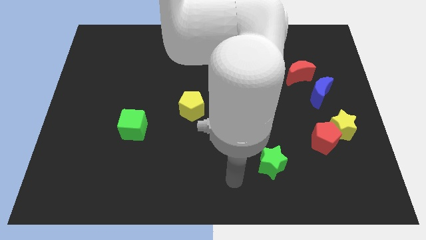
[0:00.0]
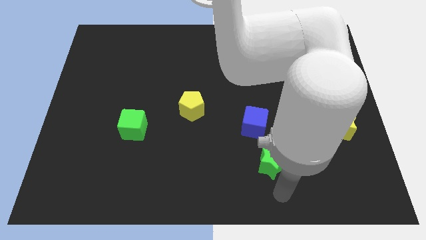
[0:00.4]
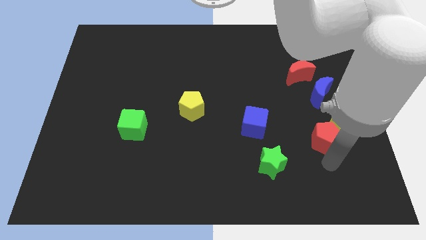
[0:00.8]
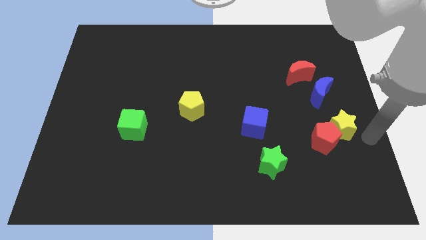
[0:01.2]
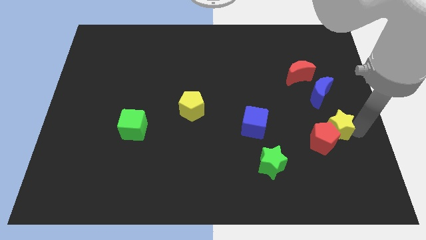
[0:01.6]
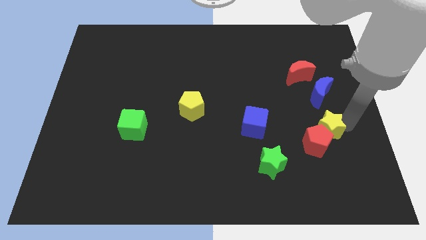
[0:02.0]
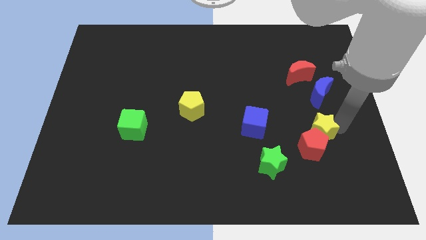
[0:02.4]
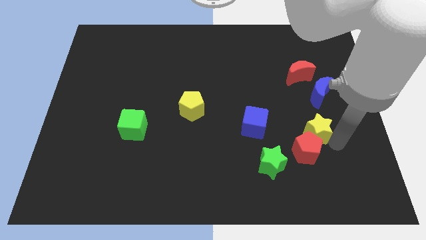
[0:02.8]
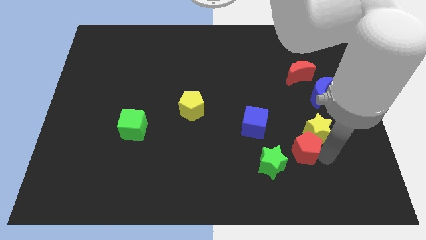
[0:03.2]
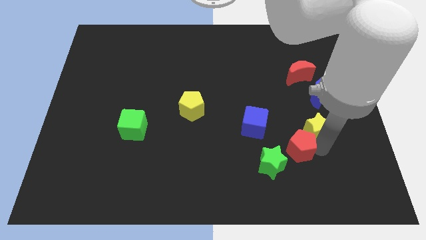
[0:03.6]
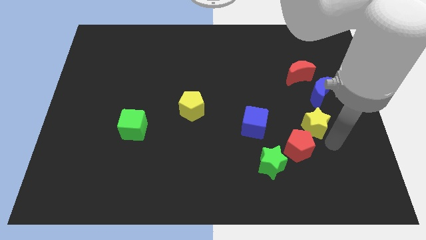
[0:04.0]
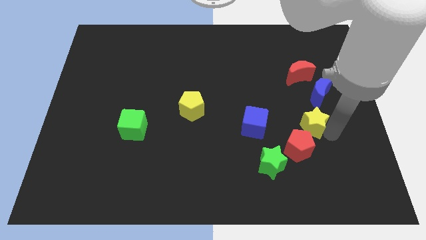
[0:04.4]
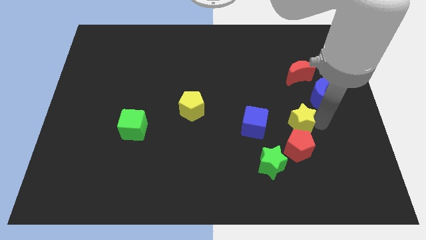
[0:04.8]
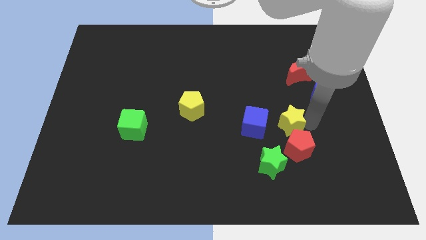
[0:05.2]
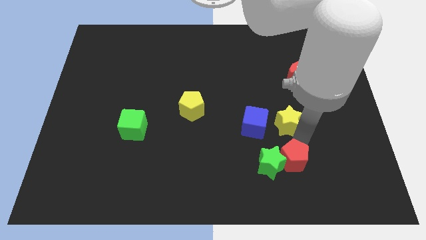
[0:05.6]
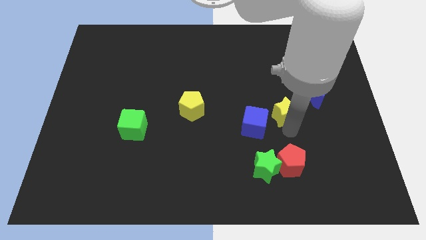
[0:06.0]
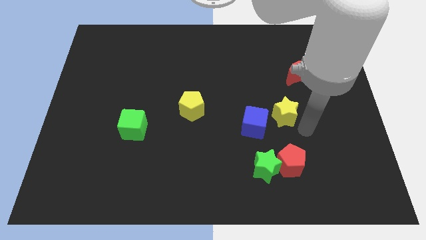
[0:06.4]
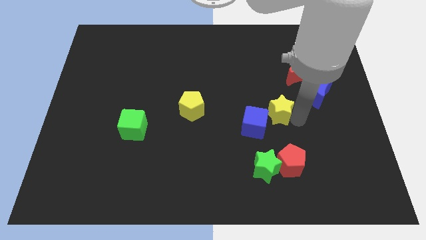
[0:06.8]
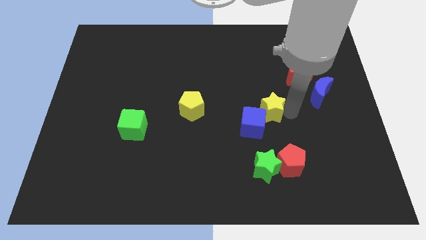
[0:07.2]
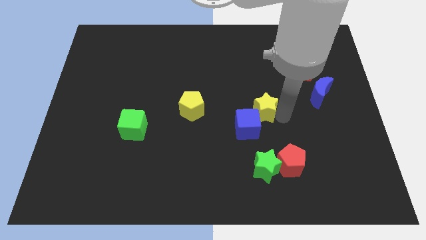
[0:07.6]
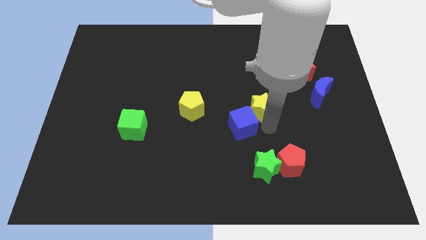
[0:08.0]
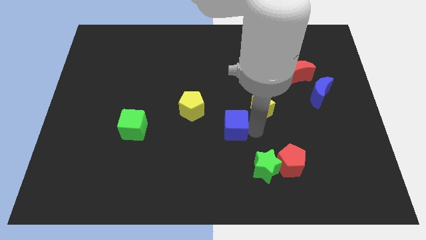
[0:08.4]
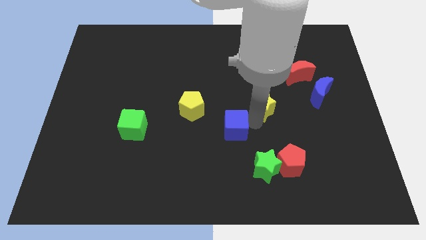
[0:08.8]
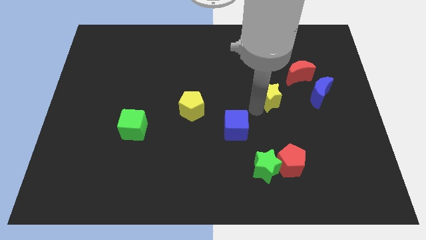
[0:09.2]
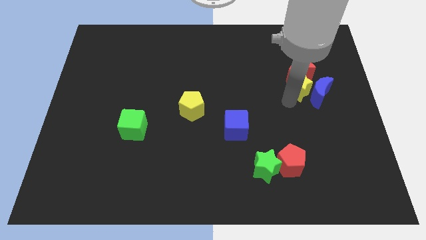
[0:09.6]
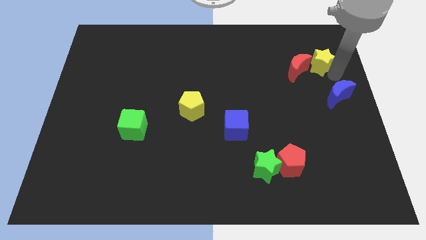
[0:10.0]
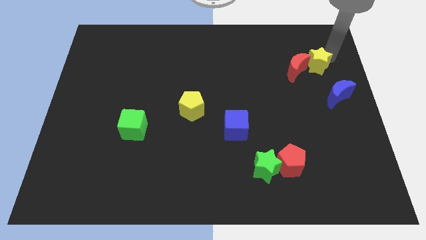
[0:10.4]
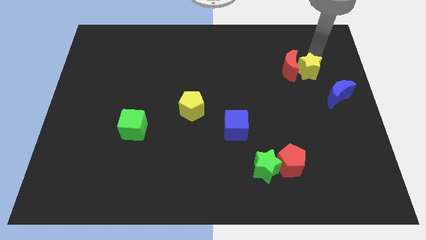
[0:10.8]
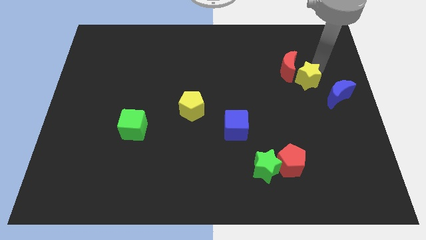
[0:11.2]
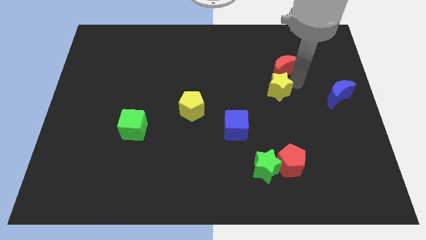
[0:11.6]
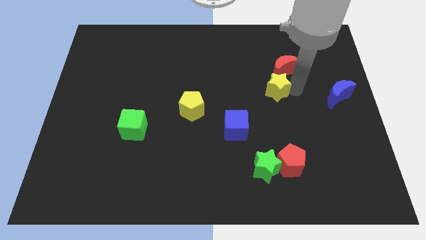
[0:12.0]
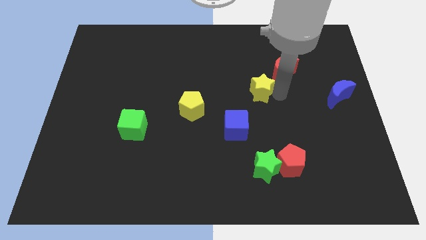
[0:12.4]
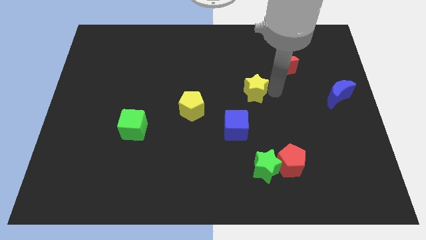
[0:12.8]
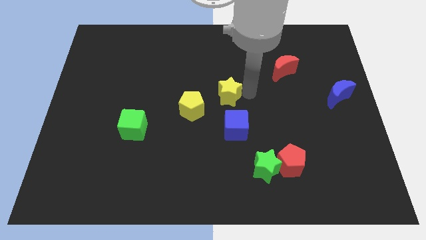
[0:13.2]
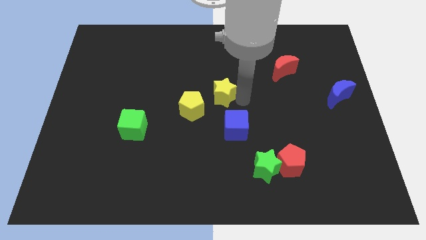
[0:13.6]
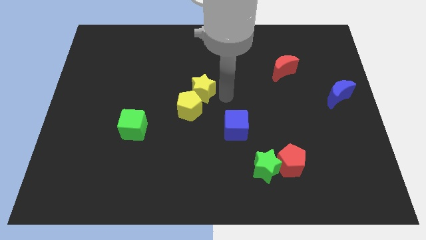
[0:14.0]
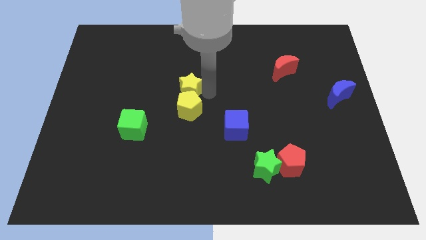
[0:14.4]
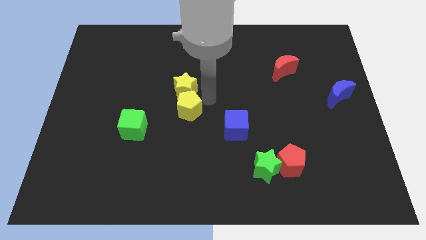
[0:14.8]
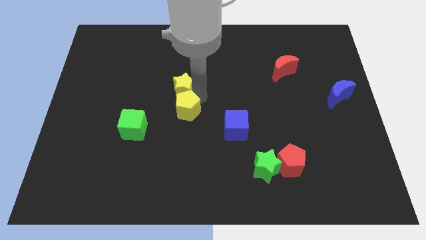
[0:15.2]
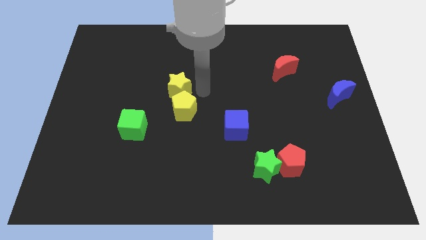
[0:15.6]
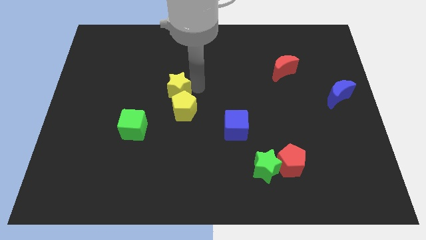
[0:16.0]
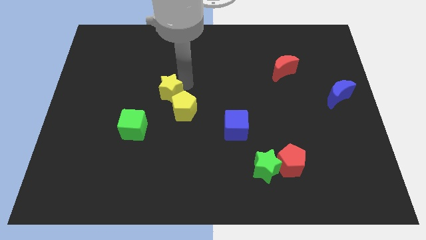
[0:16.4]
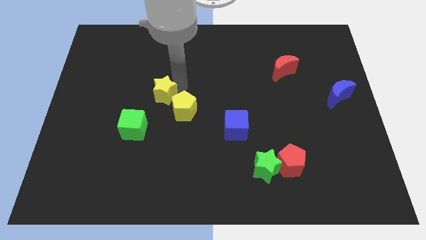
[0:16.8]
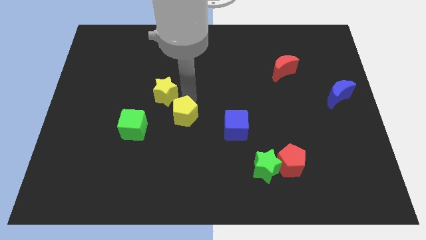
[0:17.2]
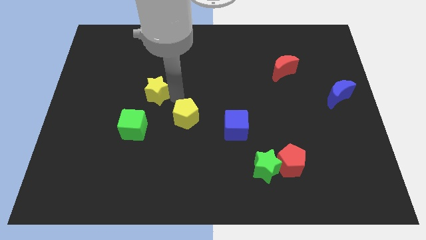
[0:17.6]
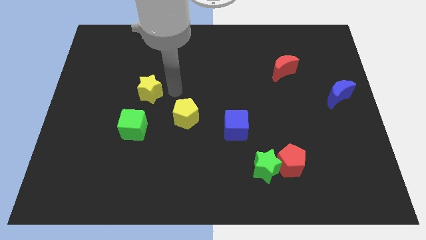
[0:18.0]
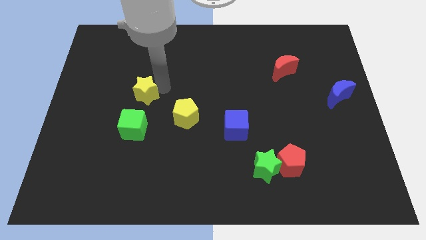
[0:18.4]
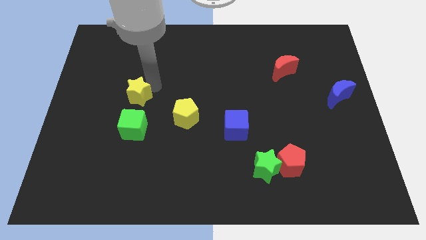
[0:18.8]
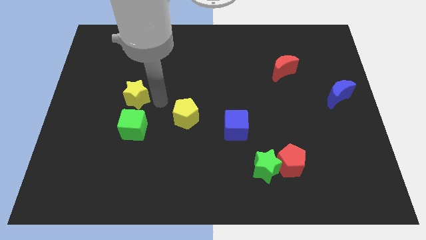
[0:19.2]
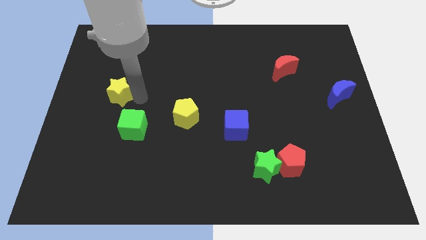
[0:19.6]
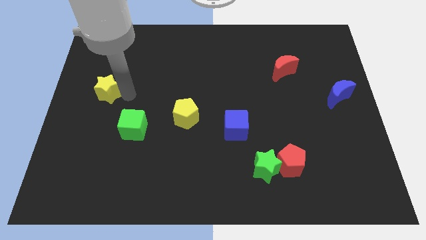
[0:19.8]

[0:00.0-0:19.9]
move the yellow star to the center left

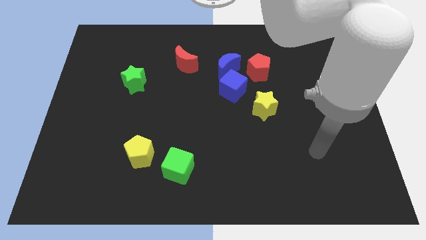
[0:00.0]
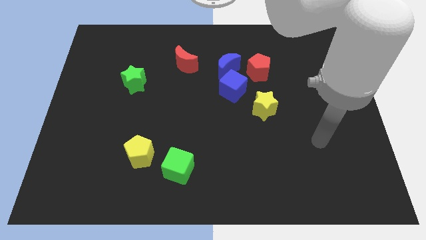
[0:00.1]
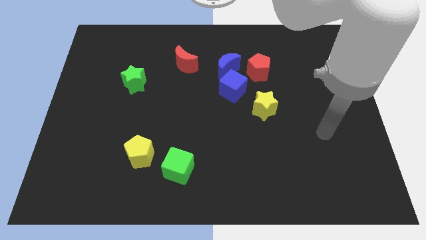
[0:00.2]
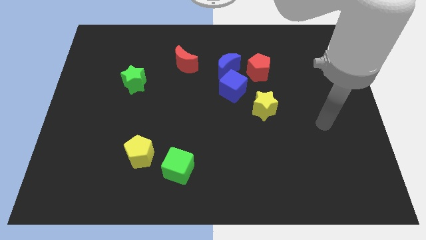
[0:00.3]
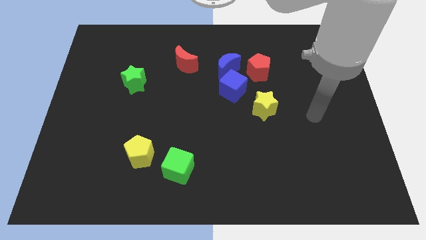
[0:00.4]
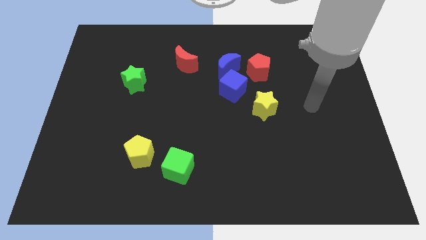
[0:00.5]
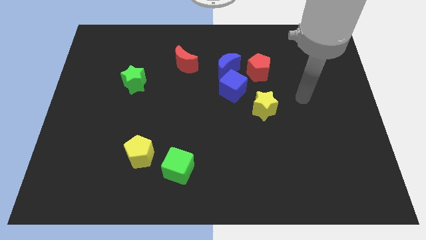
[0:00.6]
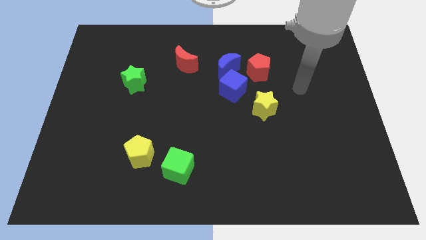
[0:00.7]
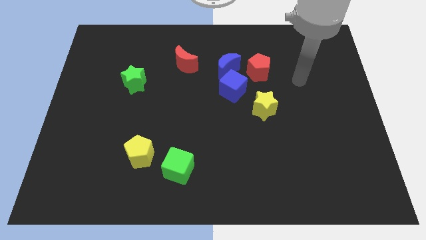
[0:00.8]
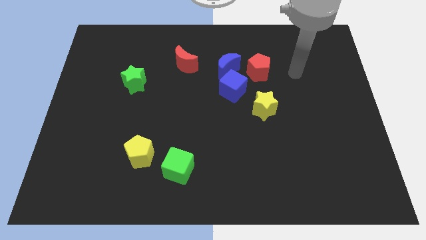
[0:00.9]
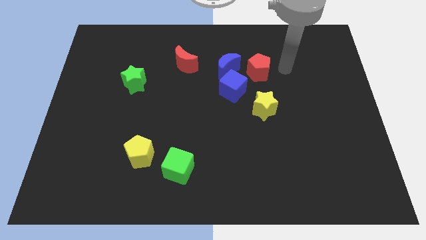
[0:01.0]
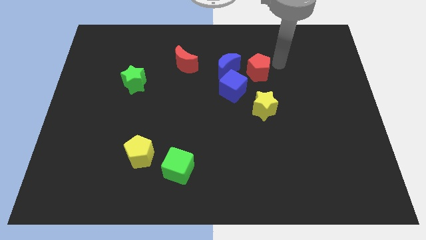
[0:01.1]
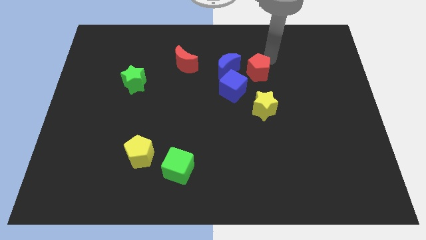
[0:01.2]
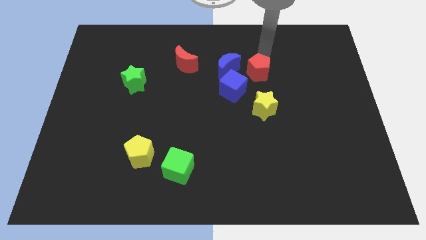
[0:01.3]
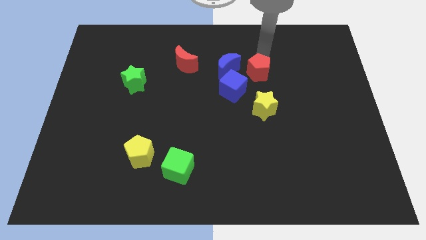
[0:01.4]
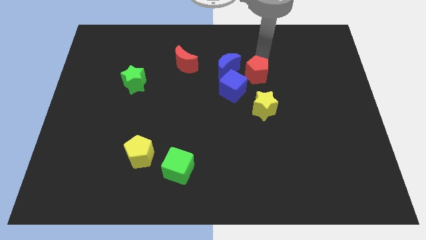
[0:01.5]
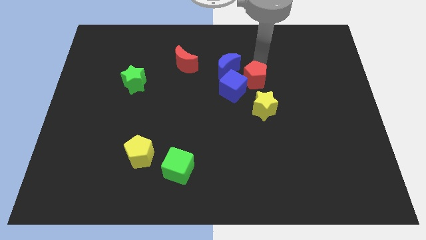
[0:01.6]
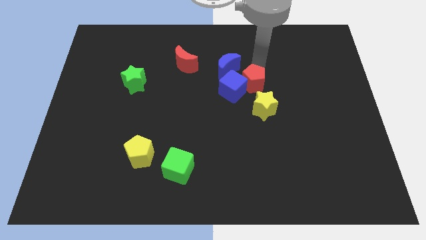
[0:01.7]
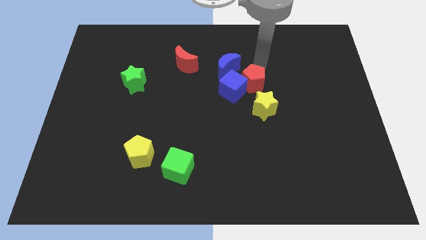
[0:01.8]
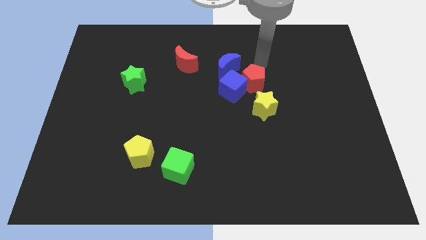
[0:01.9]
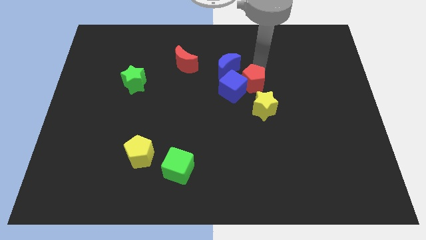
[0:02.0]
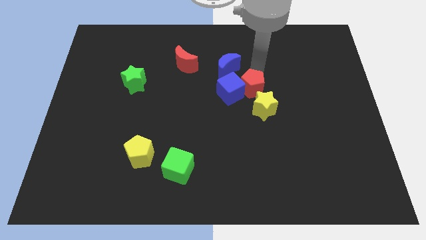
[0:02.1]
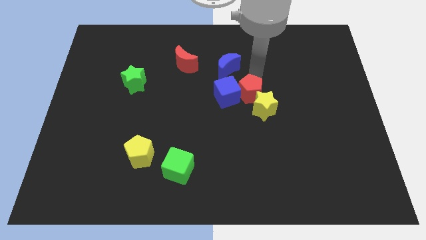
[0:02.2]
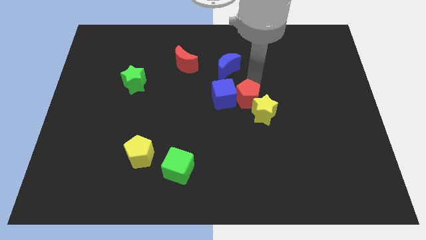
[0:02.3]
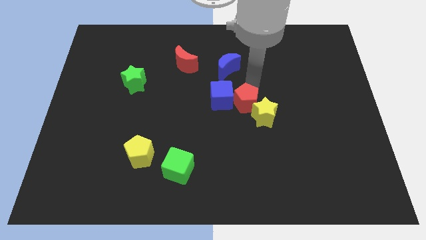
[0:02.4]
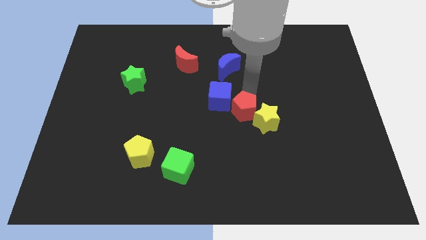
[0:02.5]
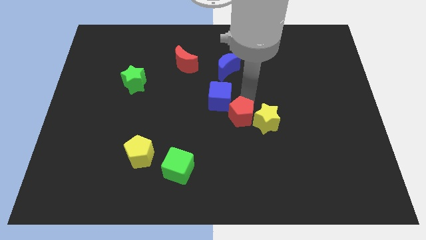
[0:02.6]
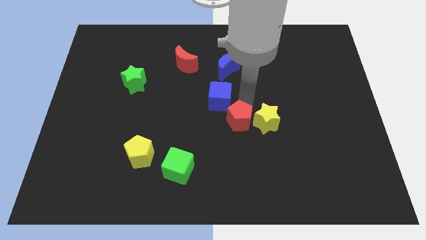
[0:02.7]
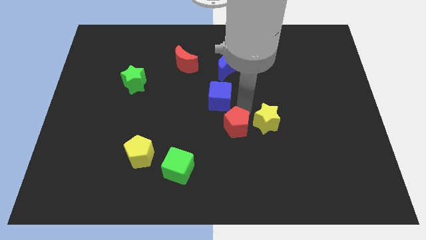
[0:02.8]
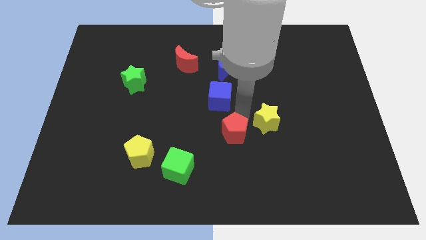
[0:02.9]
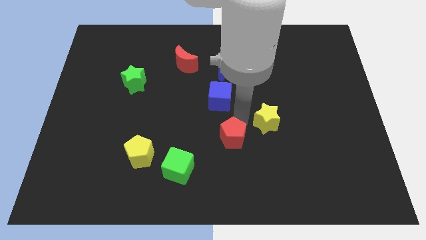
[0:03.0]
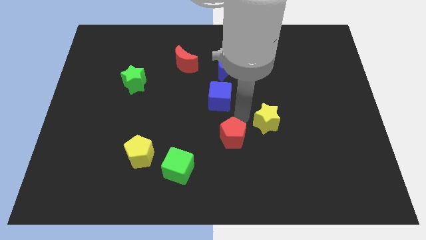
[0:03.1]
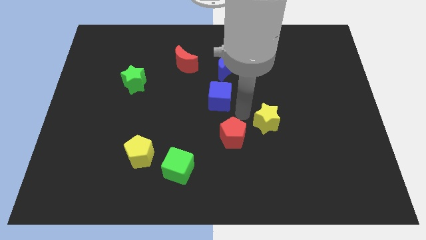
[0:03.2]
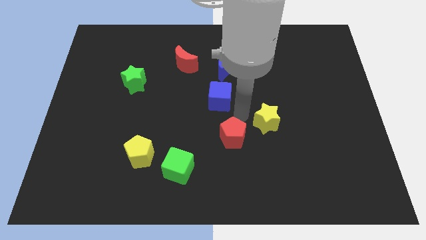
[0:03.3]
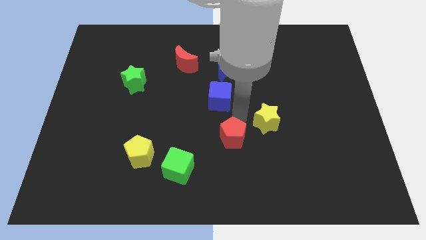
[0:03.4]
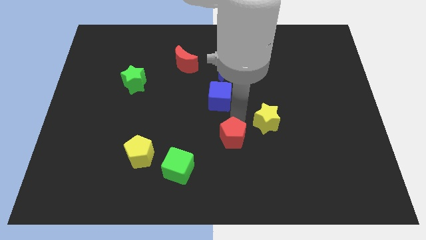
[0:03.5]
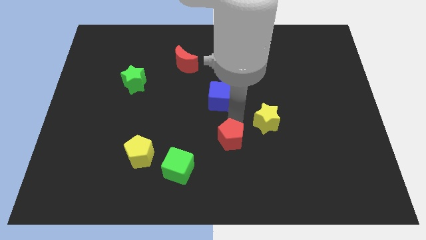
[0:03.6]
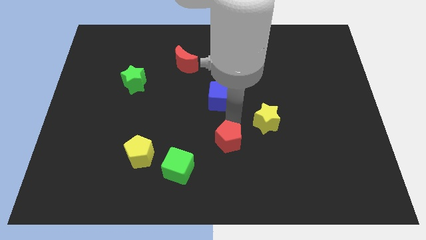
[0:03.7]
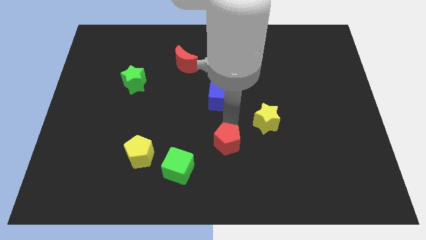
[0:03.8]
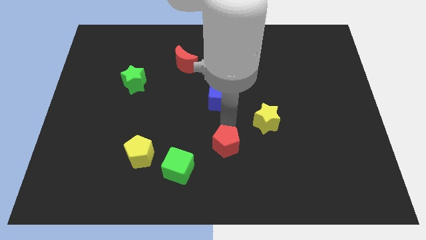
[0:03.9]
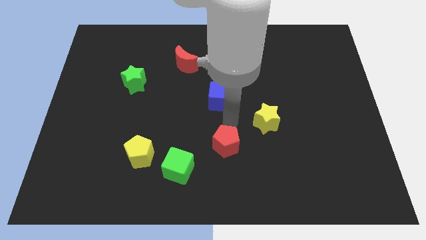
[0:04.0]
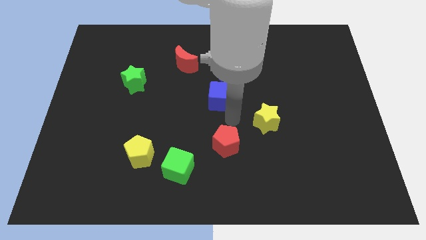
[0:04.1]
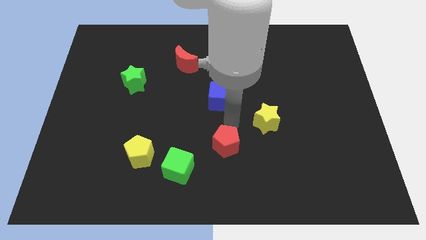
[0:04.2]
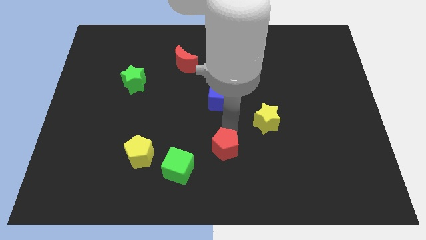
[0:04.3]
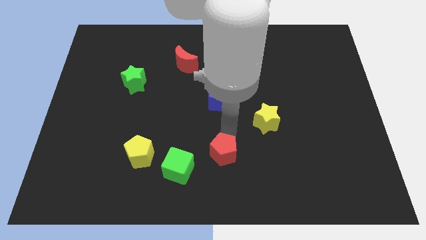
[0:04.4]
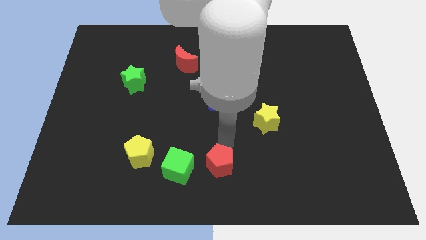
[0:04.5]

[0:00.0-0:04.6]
push the red pentagon to the bottom
